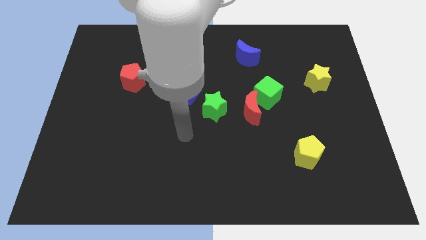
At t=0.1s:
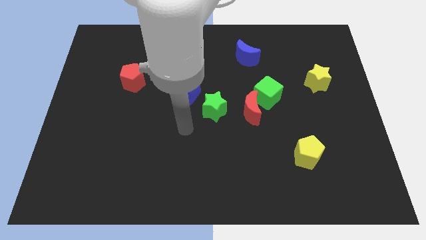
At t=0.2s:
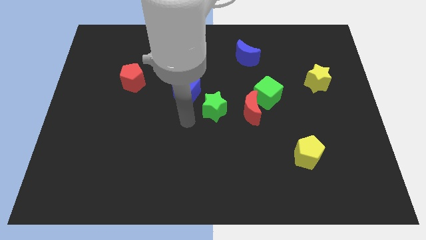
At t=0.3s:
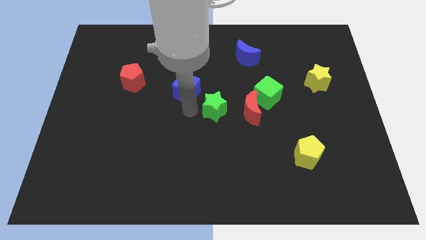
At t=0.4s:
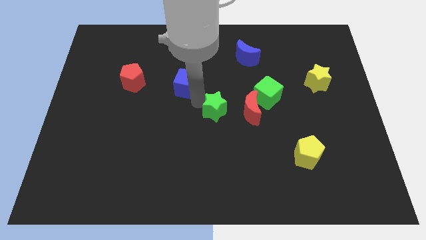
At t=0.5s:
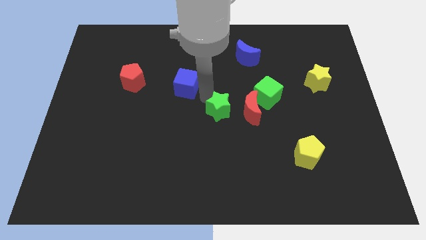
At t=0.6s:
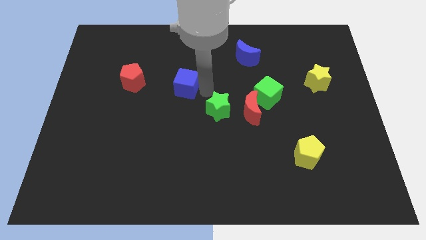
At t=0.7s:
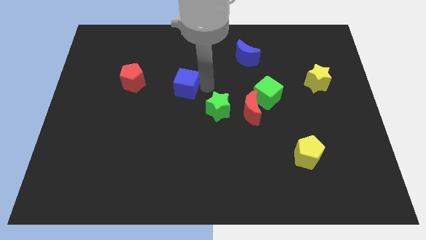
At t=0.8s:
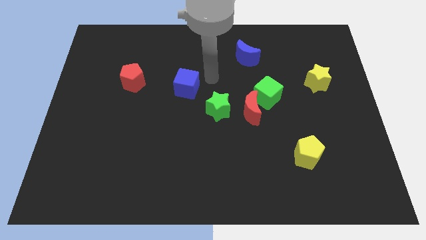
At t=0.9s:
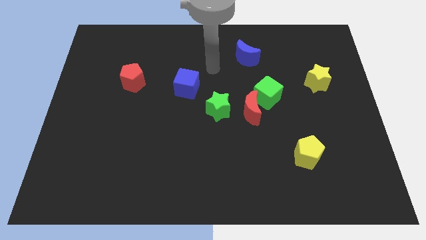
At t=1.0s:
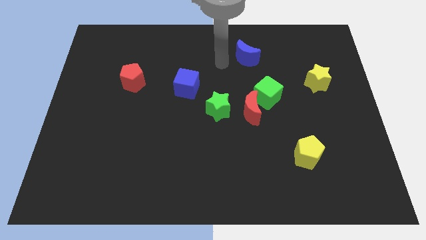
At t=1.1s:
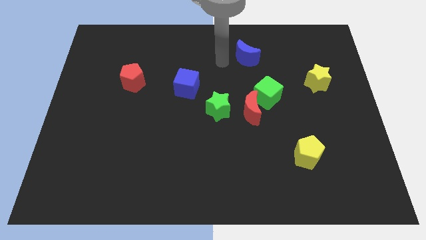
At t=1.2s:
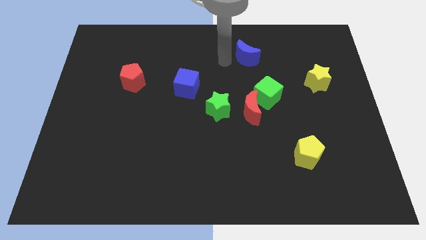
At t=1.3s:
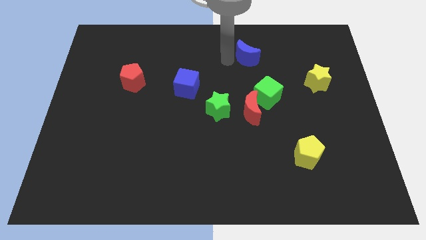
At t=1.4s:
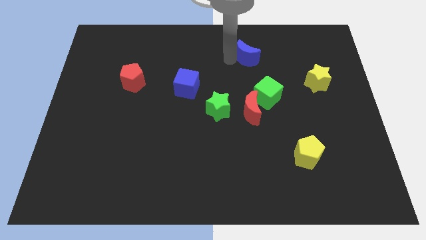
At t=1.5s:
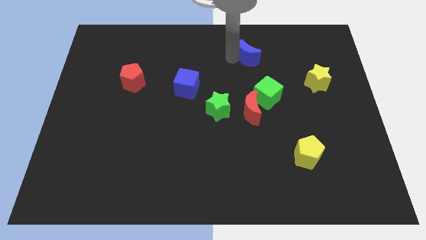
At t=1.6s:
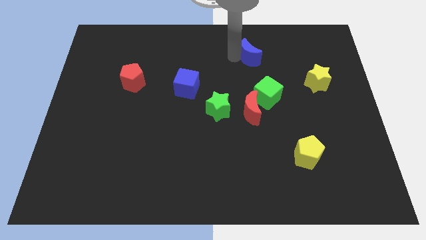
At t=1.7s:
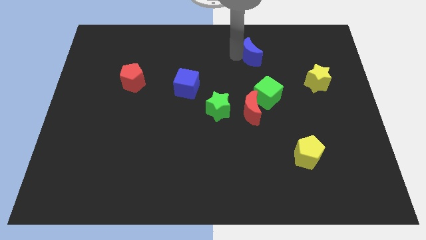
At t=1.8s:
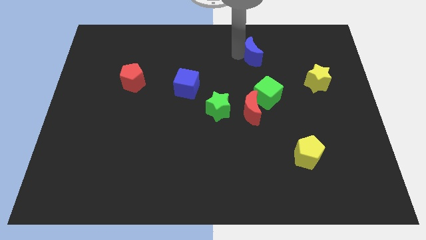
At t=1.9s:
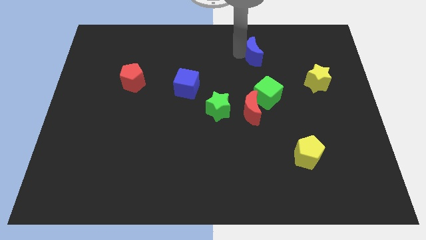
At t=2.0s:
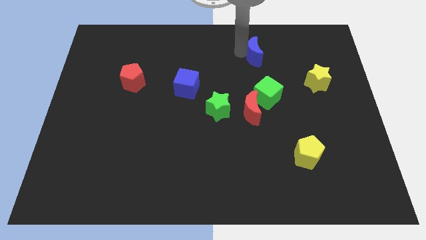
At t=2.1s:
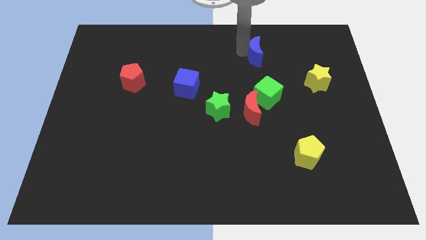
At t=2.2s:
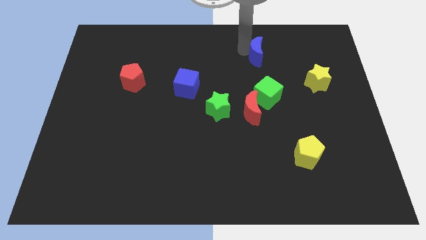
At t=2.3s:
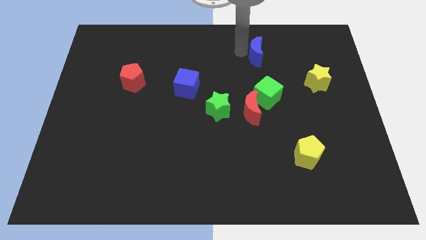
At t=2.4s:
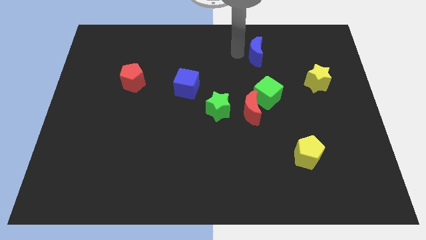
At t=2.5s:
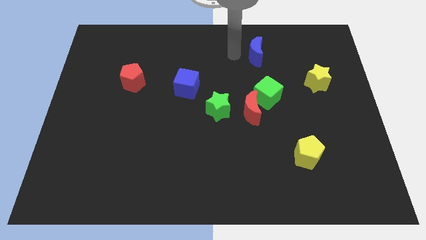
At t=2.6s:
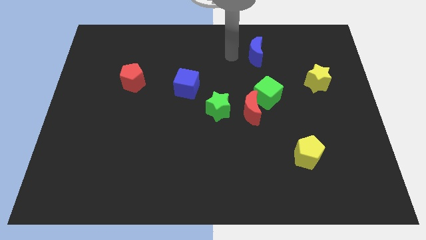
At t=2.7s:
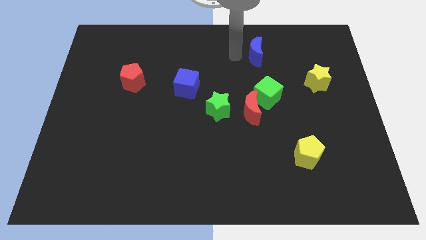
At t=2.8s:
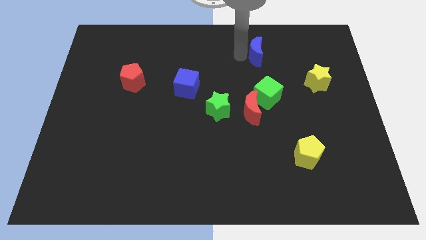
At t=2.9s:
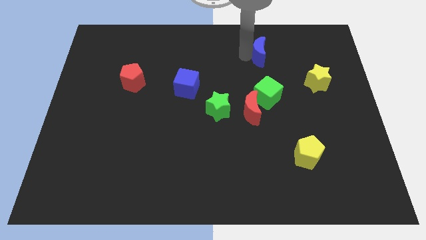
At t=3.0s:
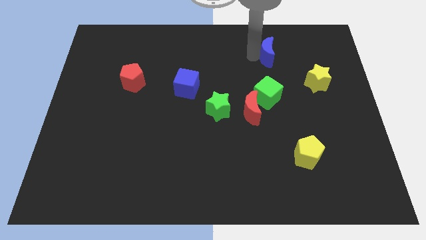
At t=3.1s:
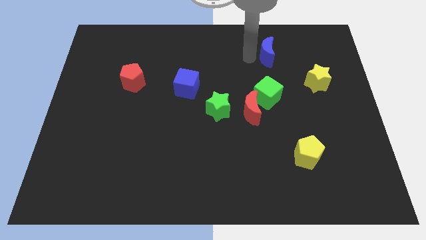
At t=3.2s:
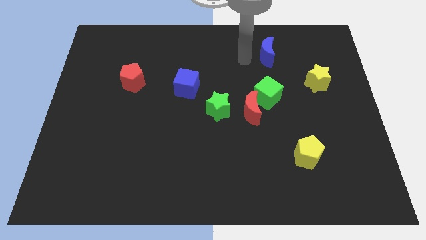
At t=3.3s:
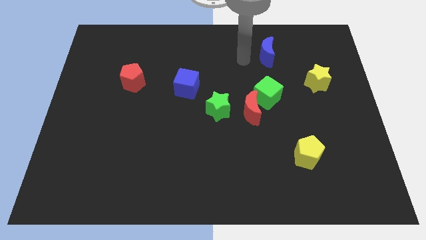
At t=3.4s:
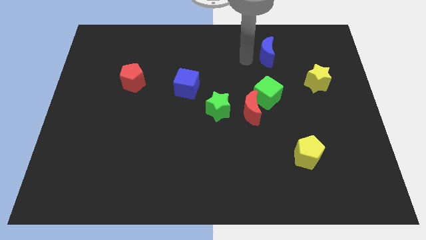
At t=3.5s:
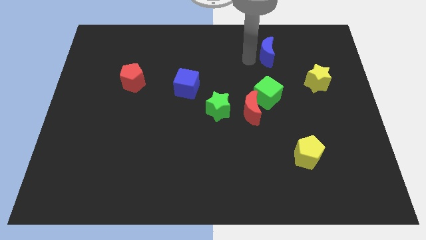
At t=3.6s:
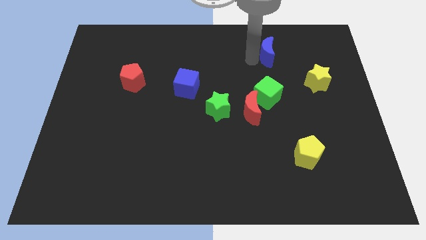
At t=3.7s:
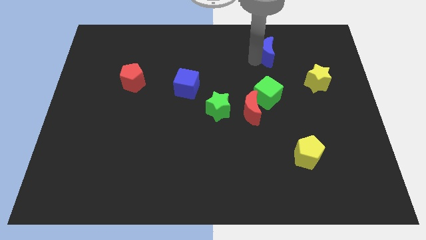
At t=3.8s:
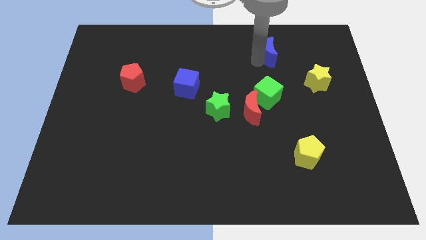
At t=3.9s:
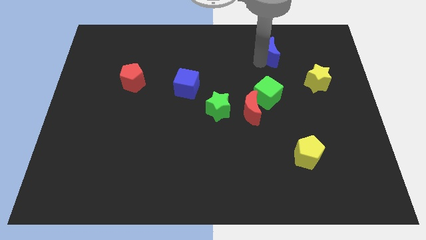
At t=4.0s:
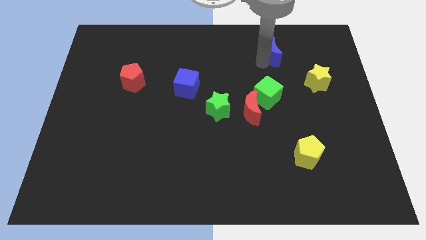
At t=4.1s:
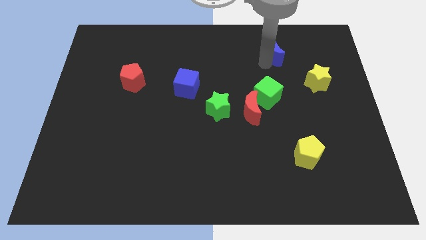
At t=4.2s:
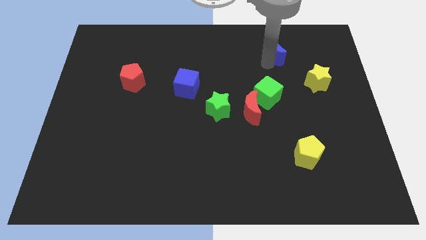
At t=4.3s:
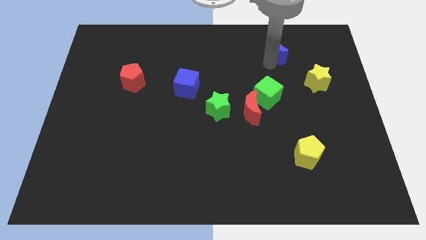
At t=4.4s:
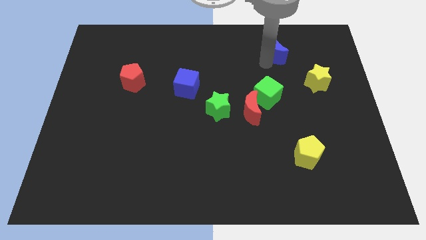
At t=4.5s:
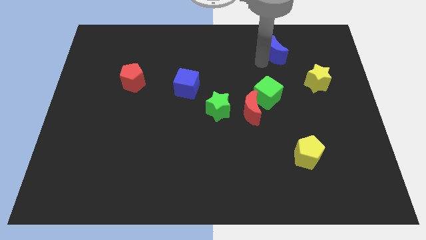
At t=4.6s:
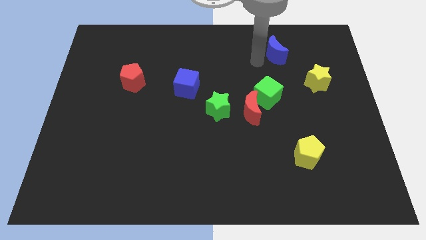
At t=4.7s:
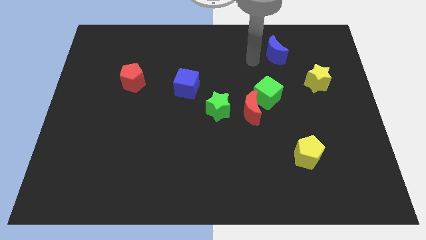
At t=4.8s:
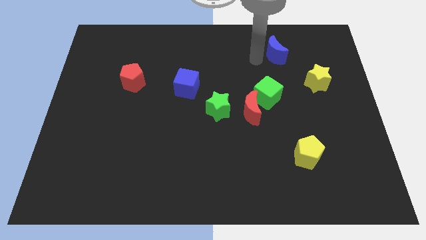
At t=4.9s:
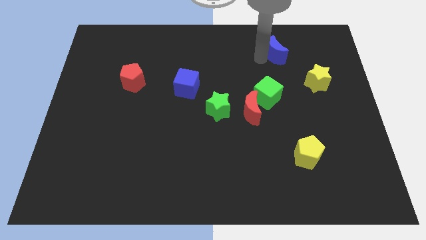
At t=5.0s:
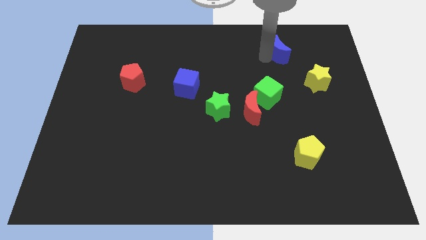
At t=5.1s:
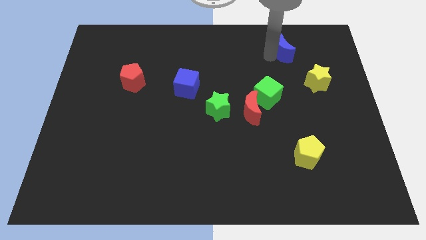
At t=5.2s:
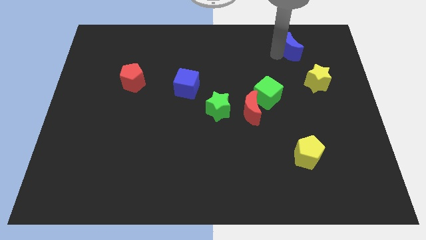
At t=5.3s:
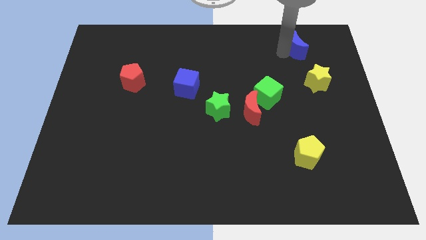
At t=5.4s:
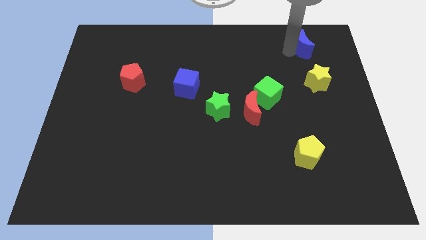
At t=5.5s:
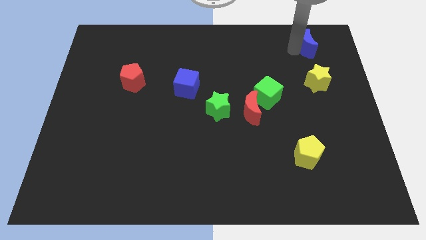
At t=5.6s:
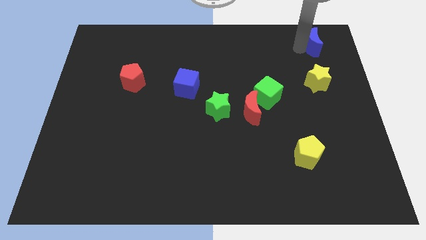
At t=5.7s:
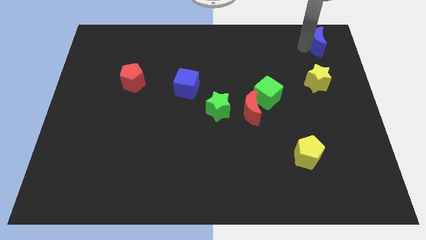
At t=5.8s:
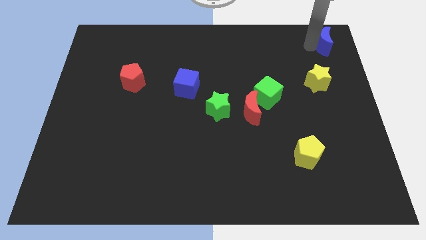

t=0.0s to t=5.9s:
push the blue moon to the top right

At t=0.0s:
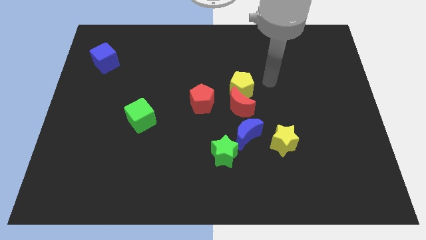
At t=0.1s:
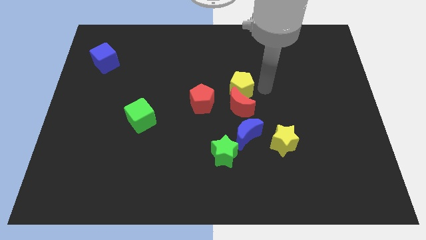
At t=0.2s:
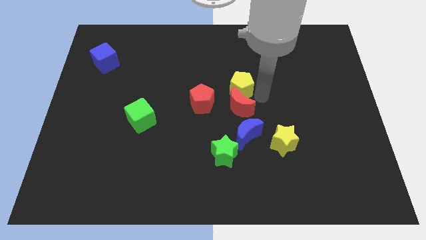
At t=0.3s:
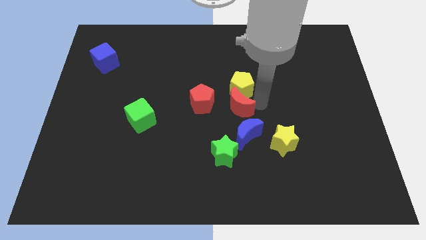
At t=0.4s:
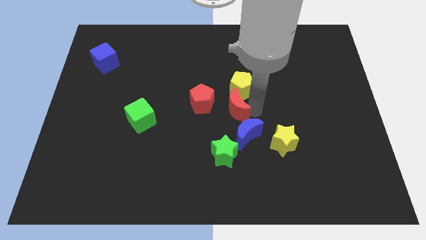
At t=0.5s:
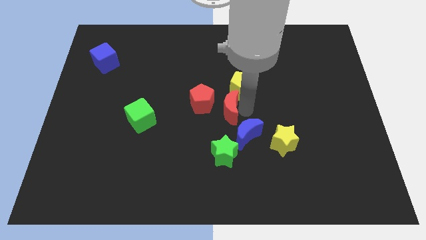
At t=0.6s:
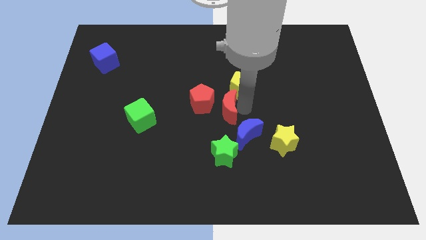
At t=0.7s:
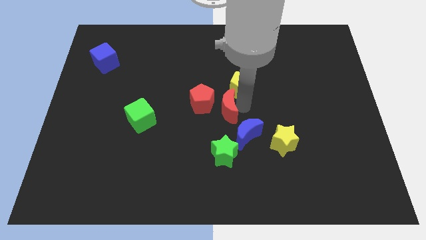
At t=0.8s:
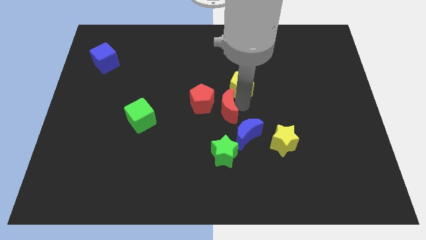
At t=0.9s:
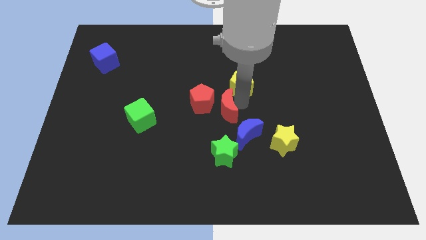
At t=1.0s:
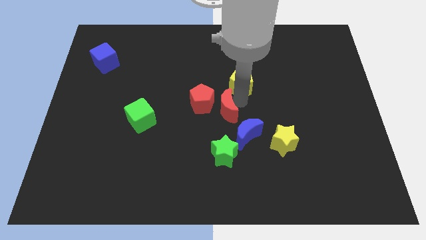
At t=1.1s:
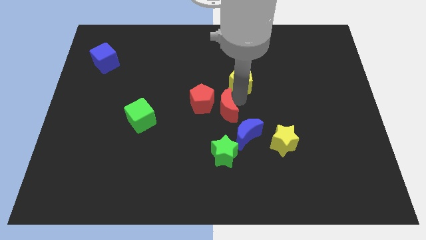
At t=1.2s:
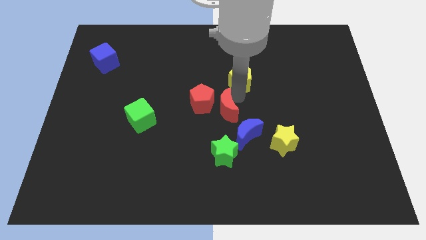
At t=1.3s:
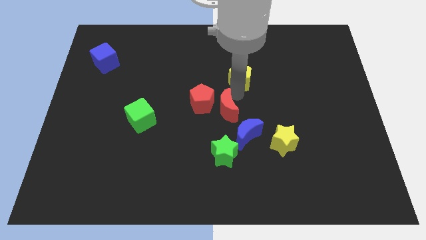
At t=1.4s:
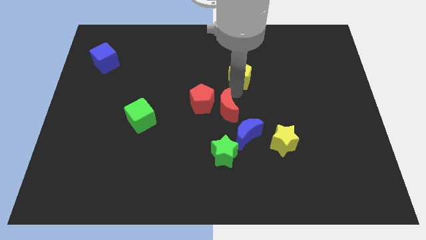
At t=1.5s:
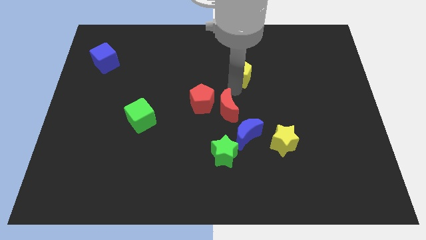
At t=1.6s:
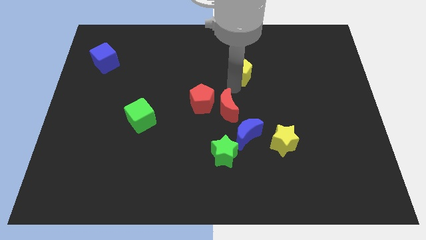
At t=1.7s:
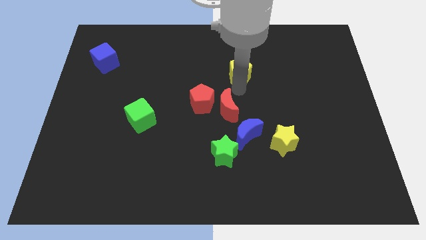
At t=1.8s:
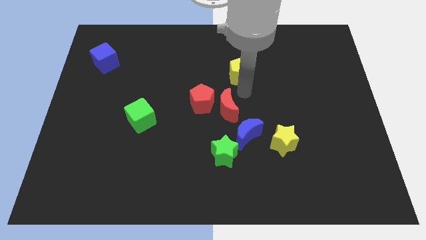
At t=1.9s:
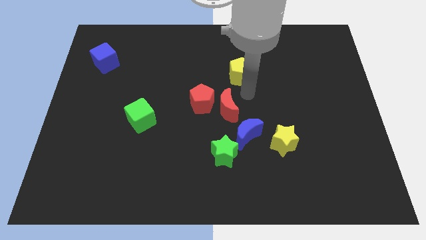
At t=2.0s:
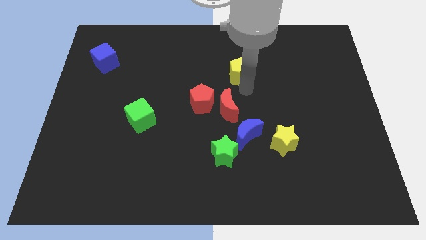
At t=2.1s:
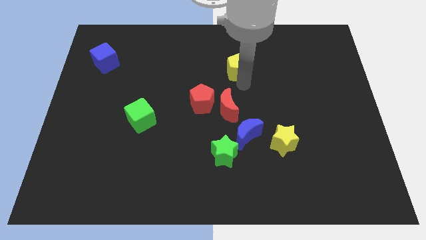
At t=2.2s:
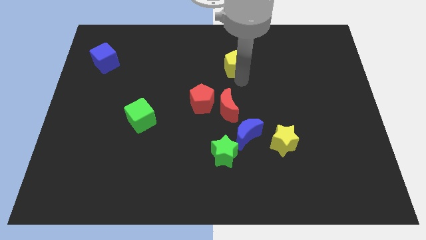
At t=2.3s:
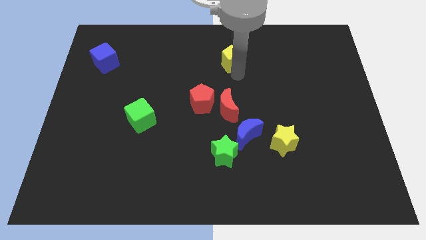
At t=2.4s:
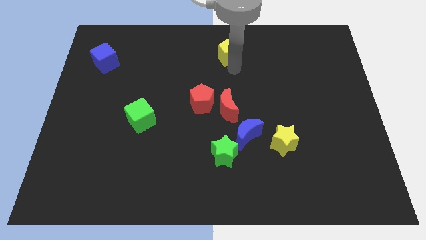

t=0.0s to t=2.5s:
slide the yellow pentagon to the top
